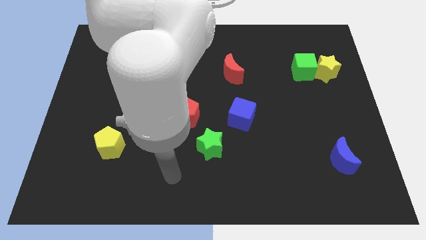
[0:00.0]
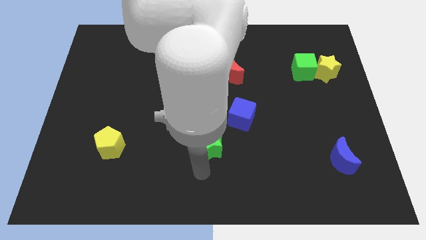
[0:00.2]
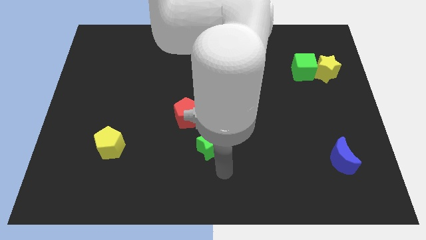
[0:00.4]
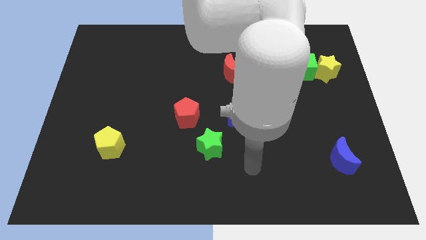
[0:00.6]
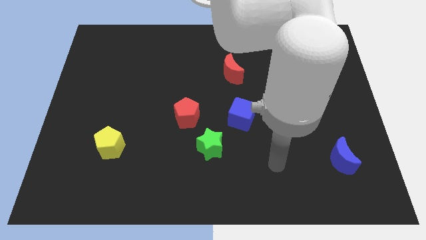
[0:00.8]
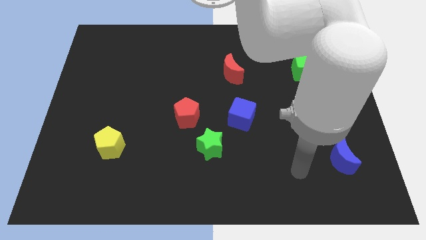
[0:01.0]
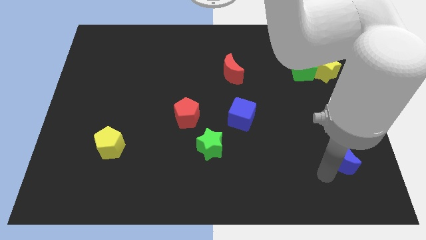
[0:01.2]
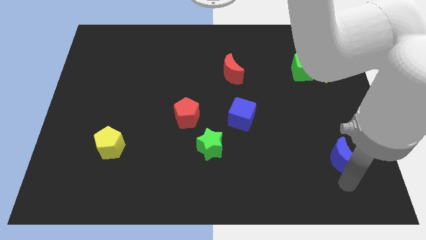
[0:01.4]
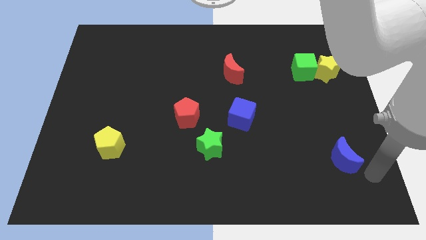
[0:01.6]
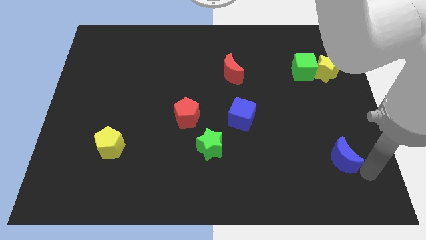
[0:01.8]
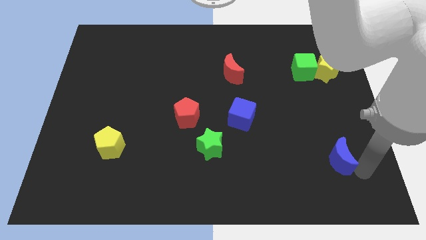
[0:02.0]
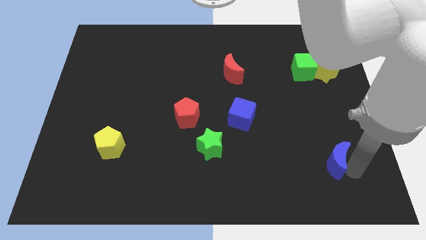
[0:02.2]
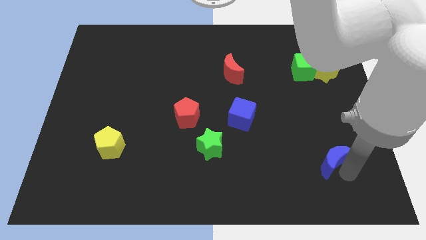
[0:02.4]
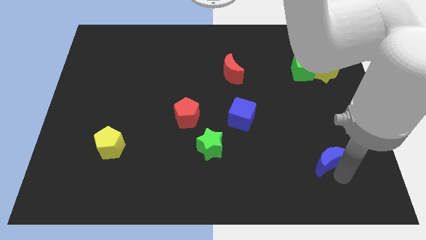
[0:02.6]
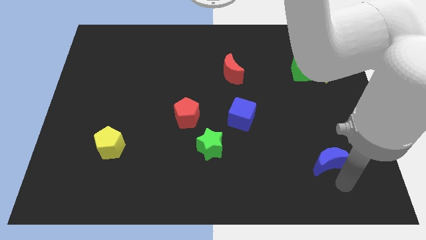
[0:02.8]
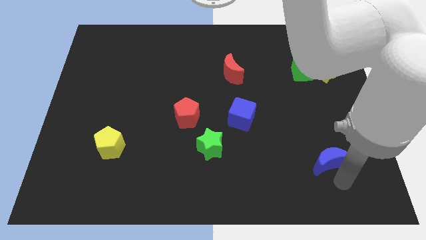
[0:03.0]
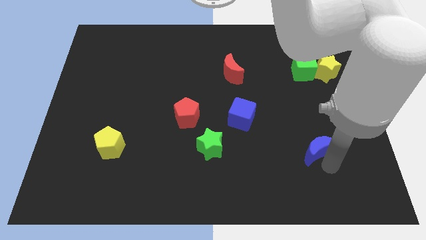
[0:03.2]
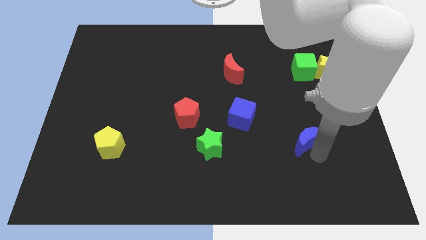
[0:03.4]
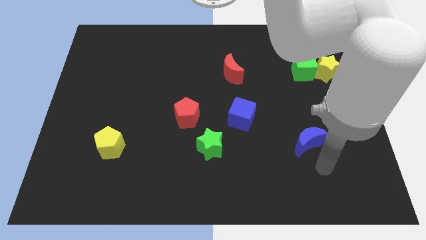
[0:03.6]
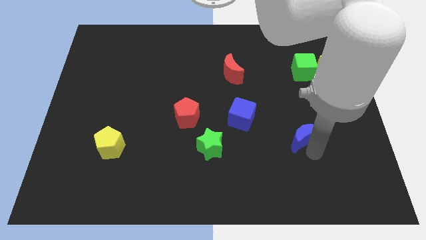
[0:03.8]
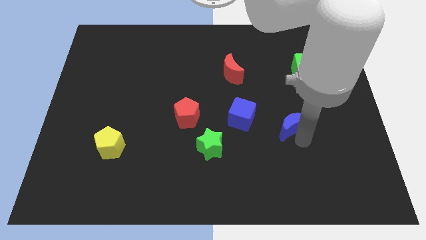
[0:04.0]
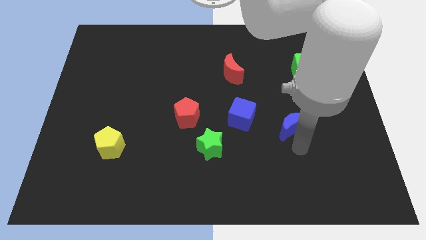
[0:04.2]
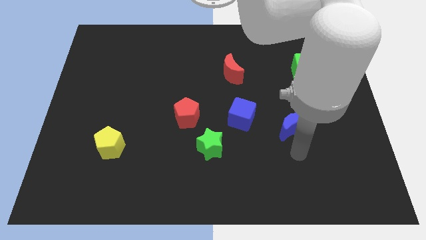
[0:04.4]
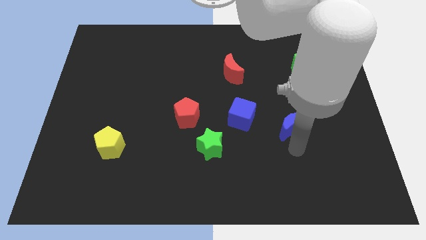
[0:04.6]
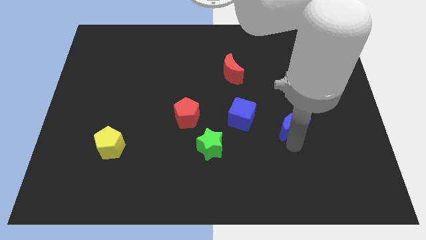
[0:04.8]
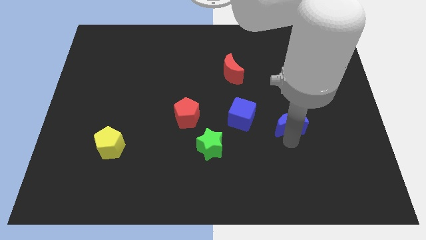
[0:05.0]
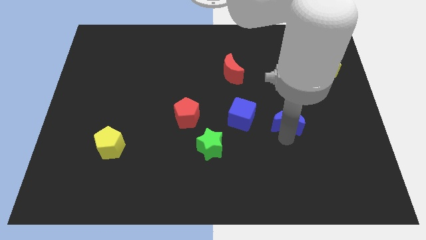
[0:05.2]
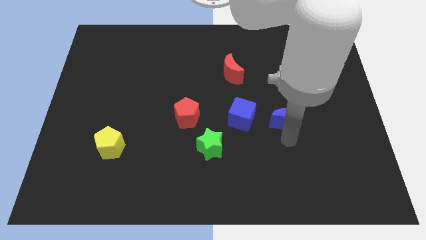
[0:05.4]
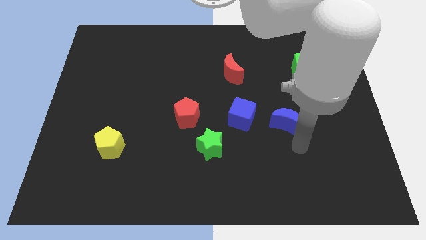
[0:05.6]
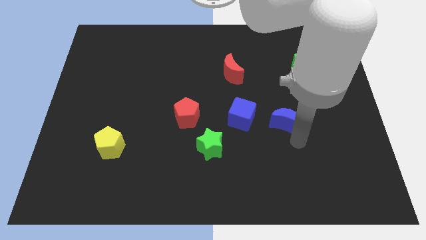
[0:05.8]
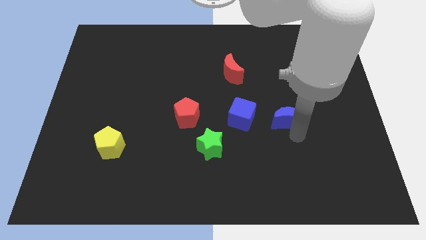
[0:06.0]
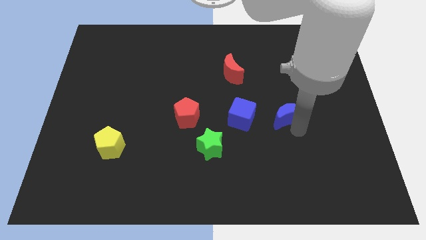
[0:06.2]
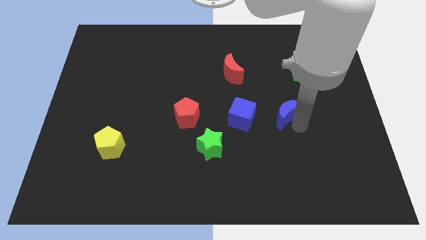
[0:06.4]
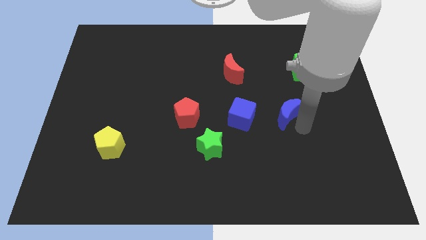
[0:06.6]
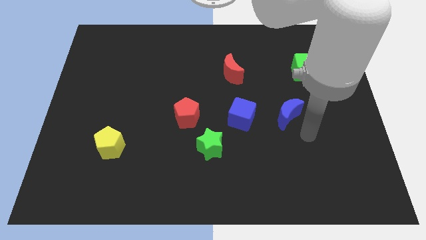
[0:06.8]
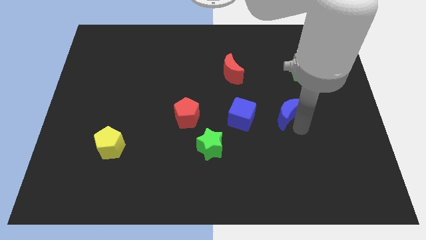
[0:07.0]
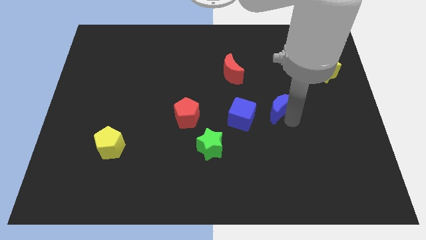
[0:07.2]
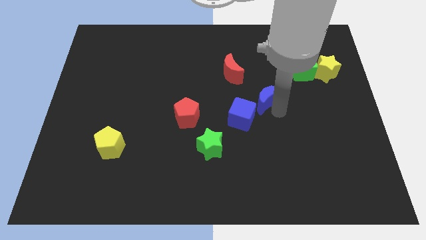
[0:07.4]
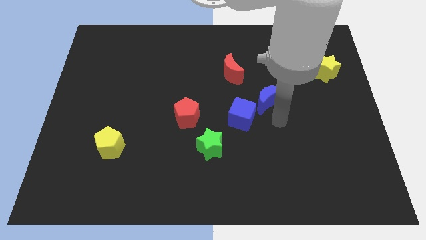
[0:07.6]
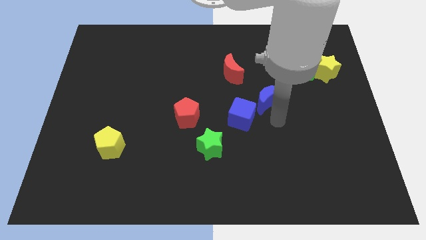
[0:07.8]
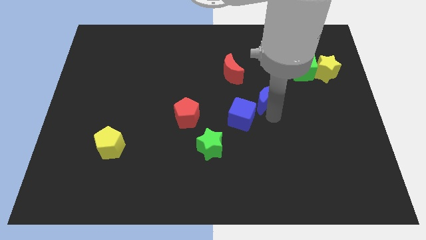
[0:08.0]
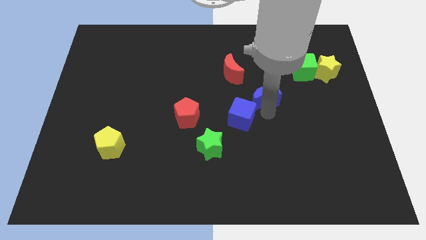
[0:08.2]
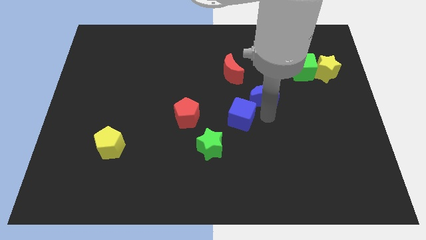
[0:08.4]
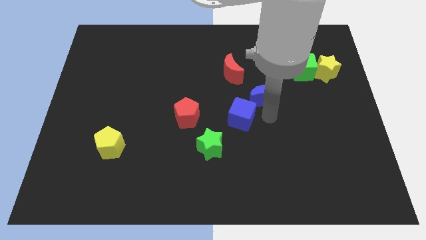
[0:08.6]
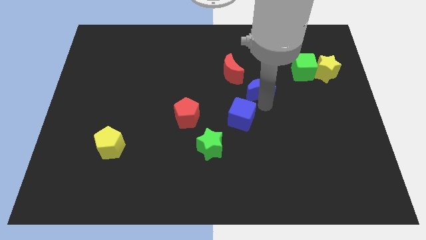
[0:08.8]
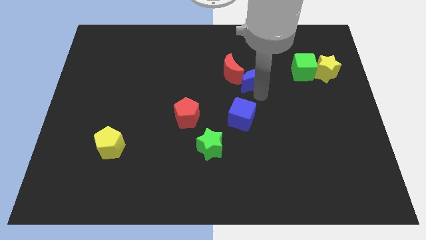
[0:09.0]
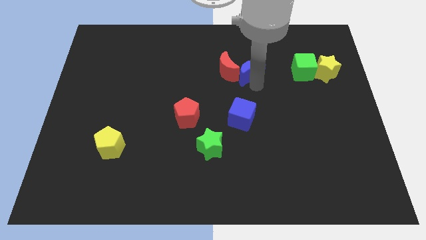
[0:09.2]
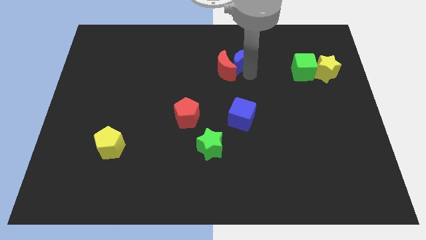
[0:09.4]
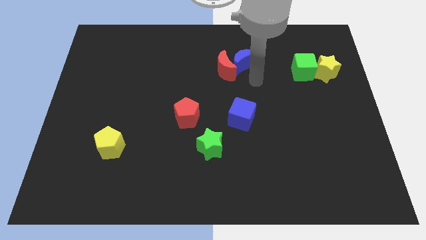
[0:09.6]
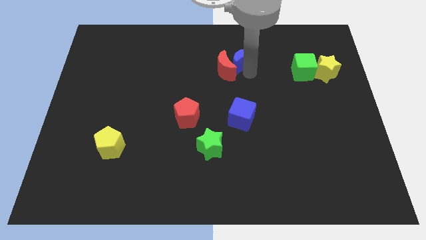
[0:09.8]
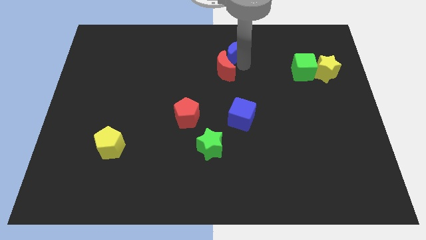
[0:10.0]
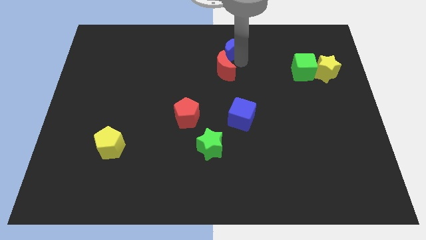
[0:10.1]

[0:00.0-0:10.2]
put the blue moon to the towards your base

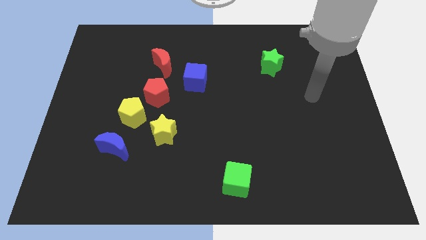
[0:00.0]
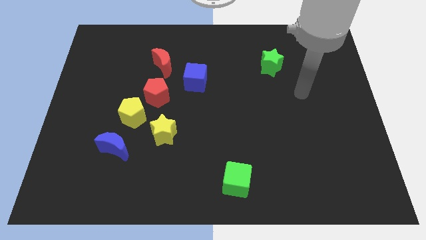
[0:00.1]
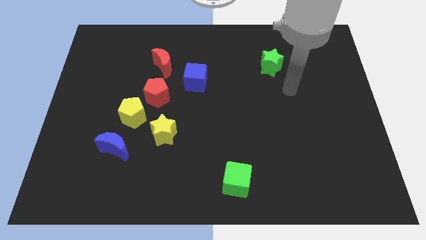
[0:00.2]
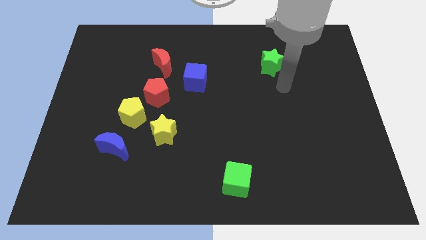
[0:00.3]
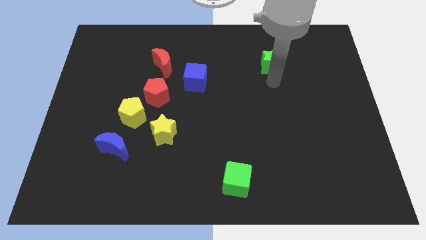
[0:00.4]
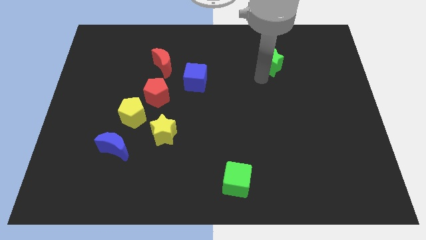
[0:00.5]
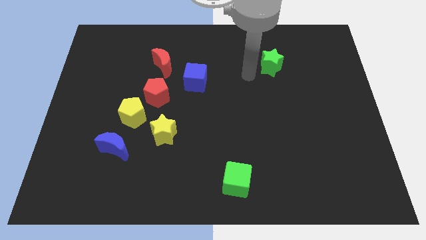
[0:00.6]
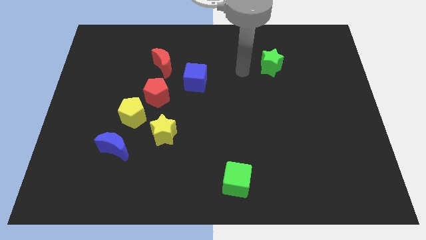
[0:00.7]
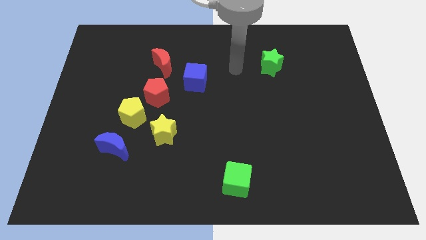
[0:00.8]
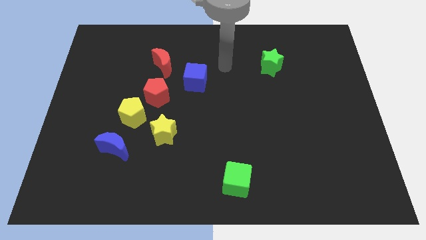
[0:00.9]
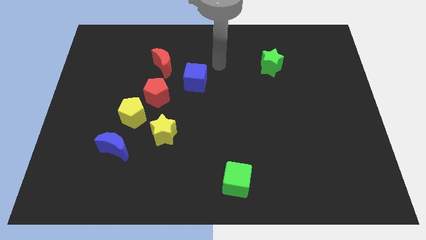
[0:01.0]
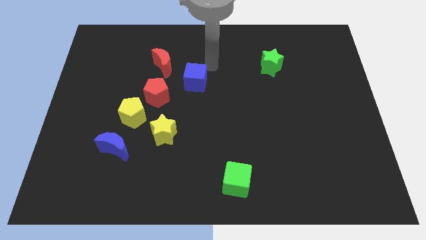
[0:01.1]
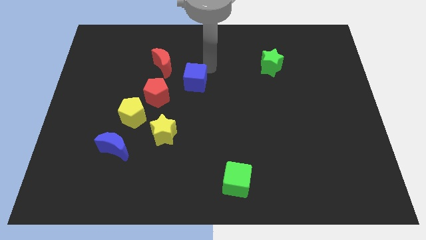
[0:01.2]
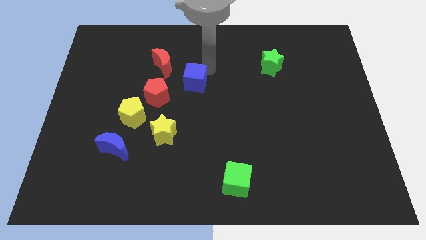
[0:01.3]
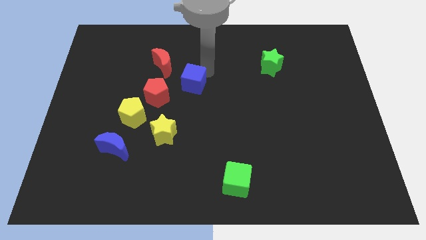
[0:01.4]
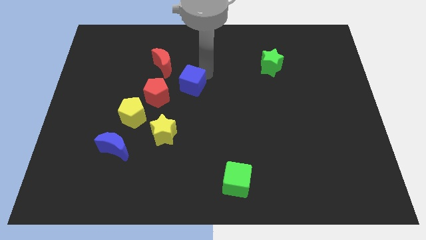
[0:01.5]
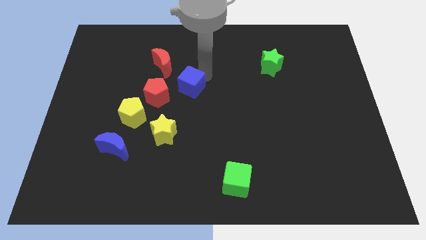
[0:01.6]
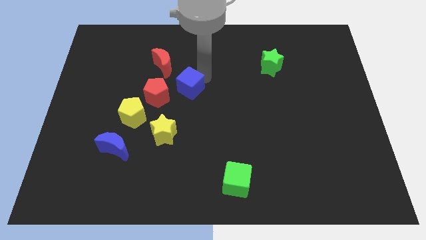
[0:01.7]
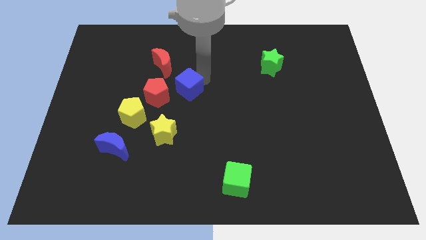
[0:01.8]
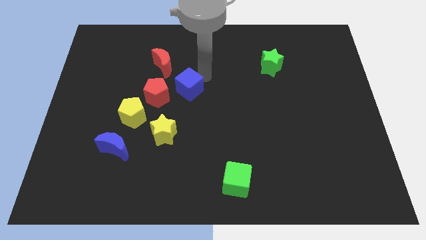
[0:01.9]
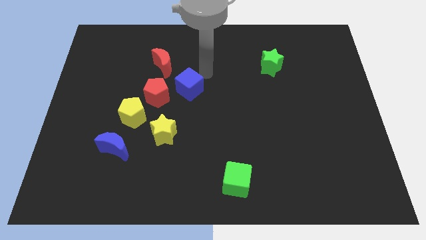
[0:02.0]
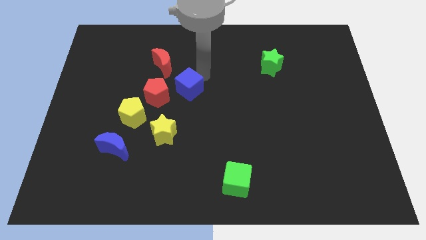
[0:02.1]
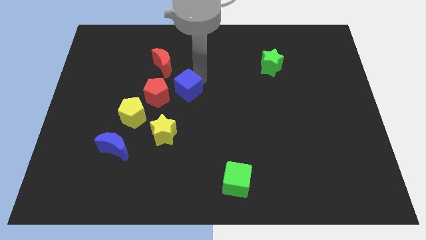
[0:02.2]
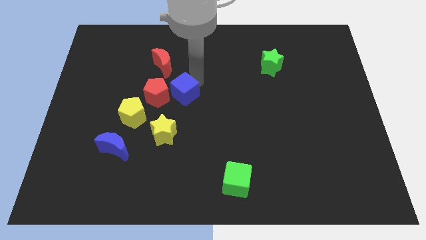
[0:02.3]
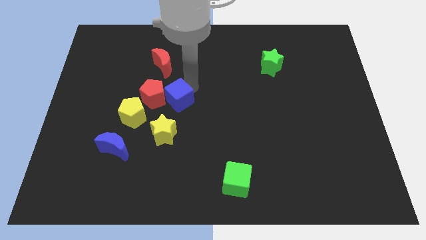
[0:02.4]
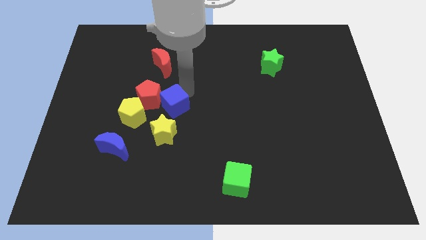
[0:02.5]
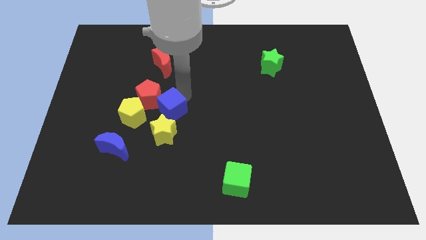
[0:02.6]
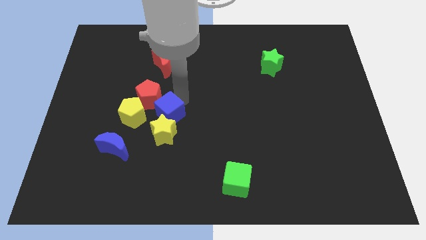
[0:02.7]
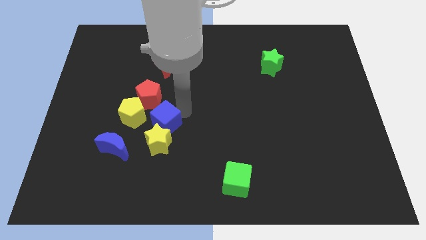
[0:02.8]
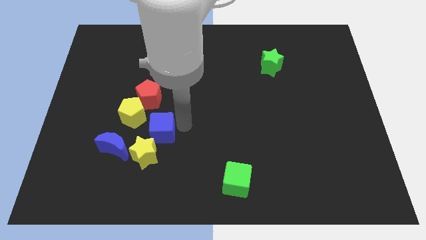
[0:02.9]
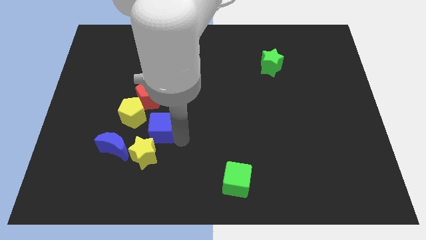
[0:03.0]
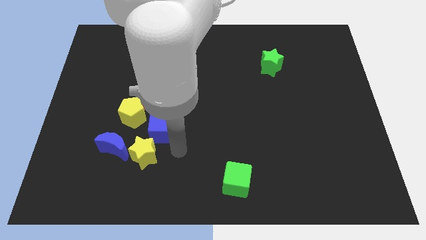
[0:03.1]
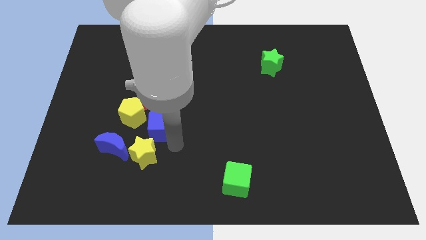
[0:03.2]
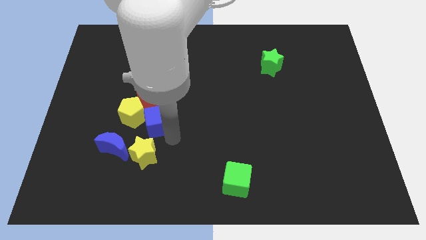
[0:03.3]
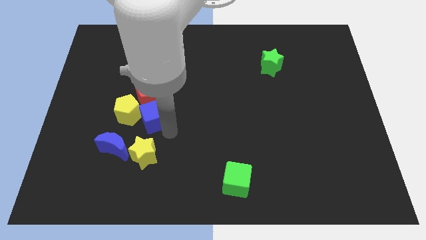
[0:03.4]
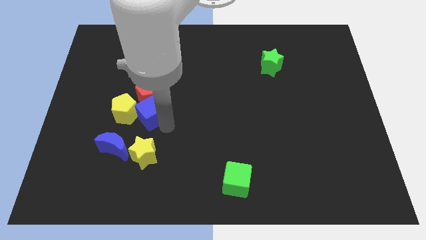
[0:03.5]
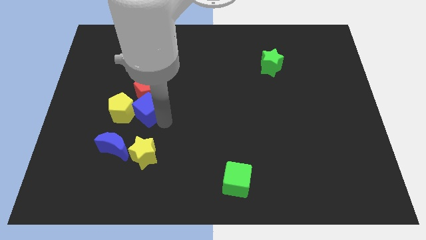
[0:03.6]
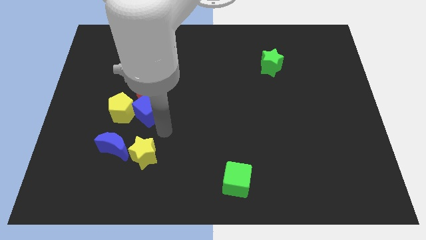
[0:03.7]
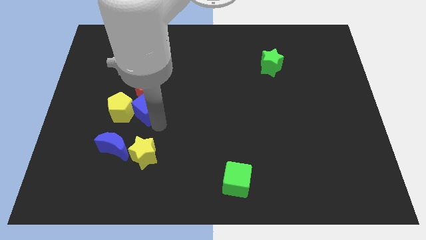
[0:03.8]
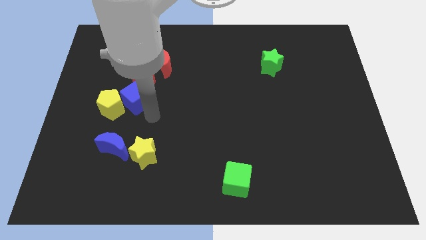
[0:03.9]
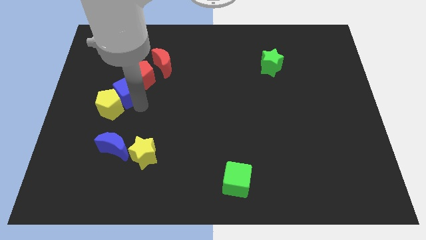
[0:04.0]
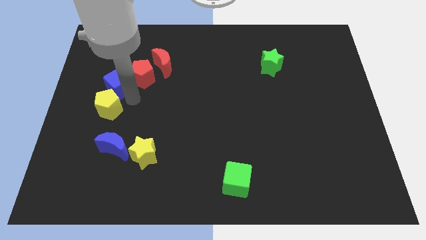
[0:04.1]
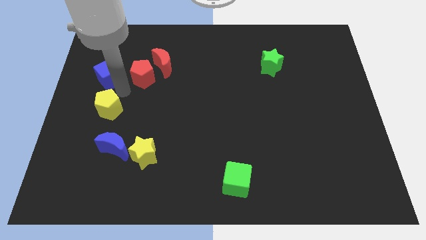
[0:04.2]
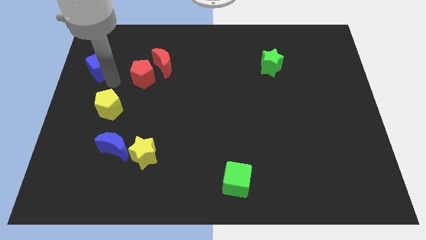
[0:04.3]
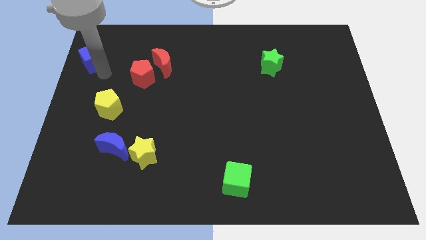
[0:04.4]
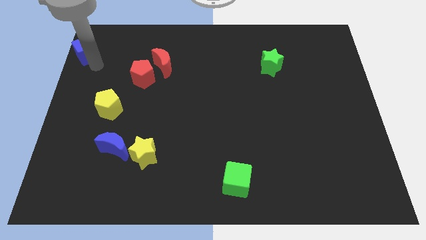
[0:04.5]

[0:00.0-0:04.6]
push the blue cube to the upper left corner
